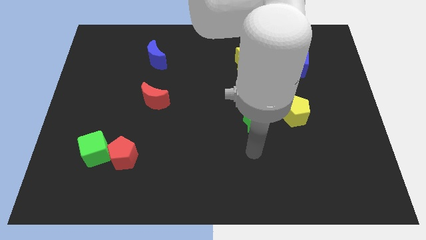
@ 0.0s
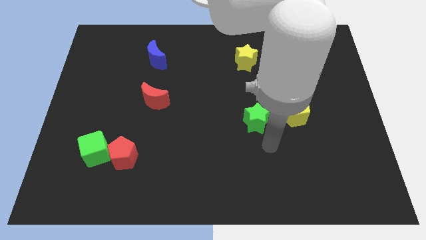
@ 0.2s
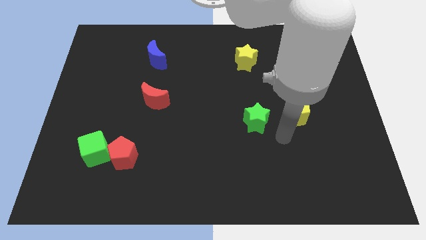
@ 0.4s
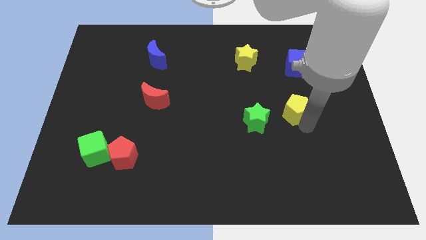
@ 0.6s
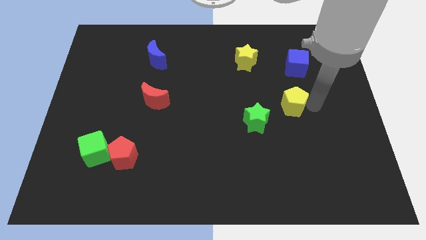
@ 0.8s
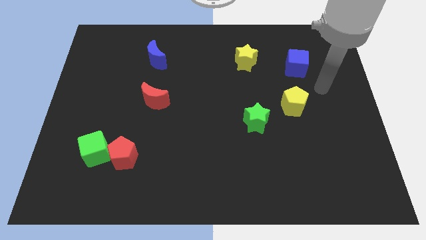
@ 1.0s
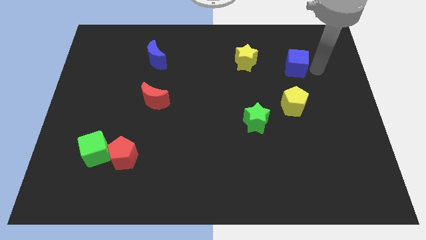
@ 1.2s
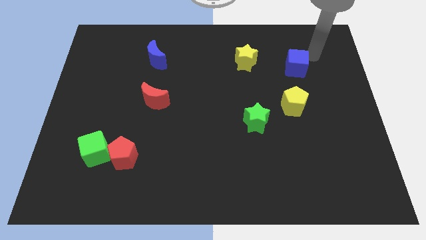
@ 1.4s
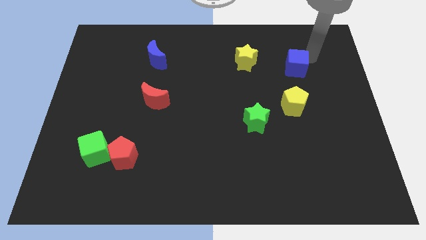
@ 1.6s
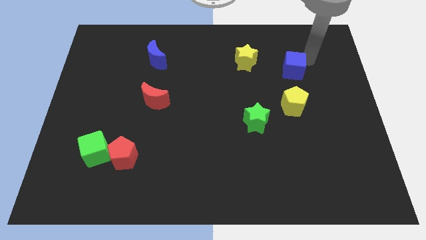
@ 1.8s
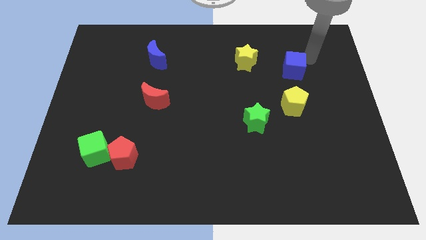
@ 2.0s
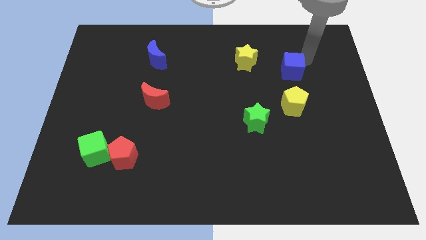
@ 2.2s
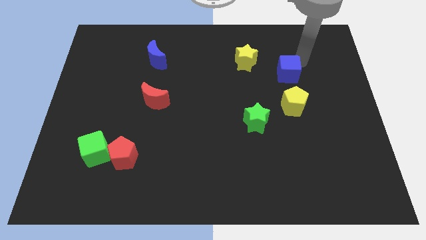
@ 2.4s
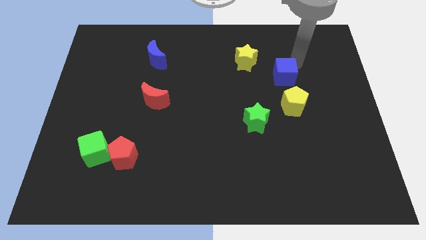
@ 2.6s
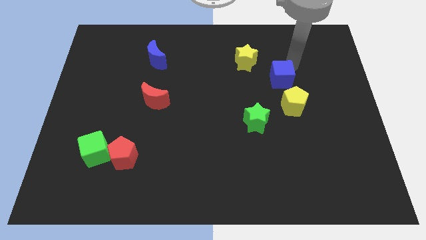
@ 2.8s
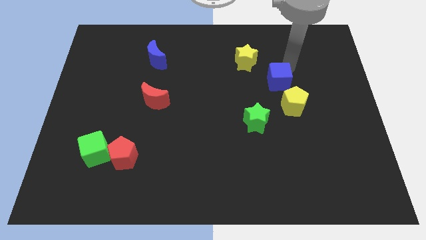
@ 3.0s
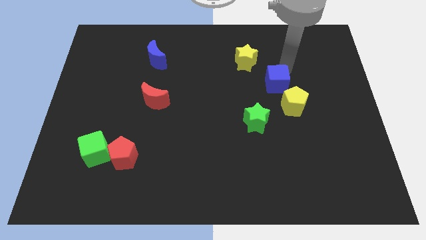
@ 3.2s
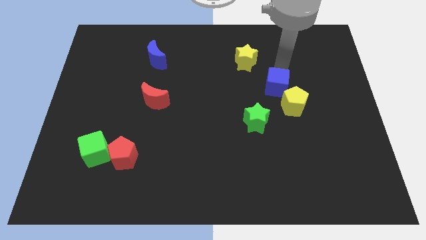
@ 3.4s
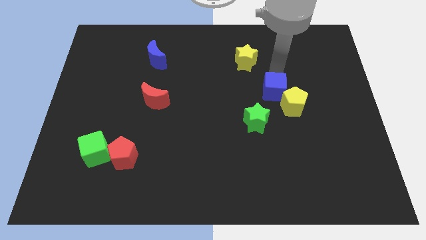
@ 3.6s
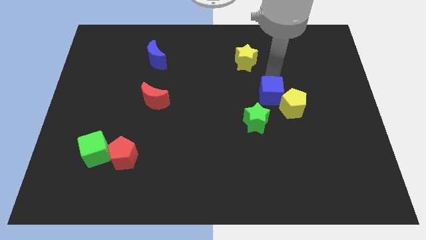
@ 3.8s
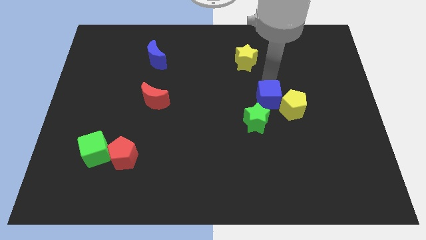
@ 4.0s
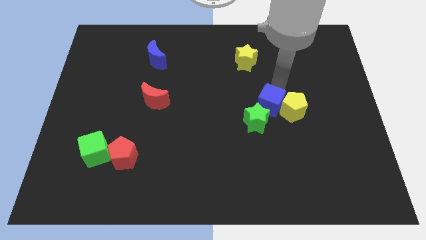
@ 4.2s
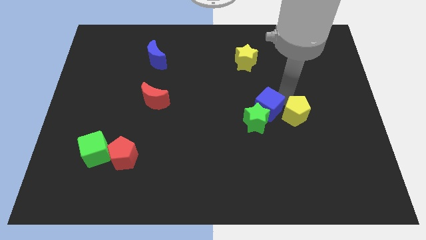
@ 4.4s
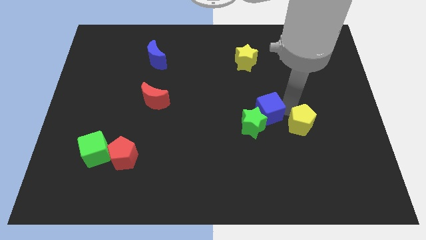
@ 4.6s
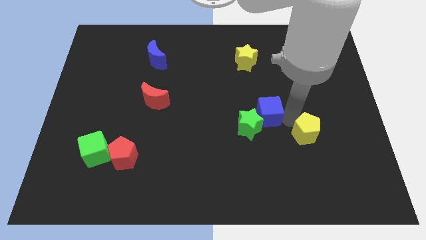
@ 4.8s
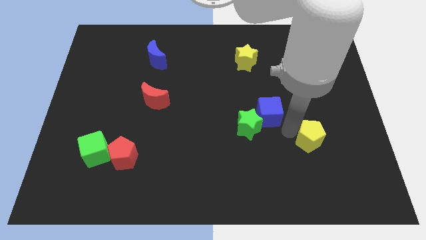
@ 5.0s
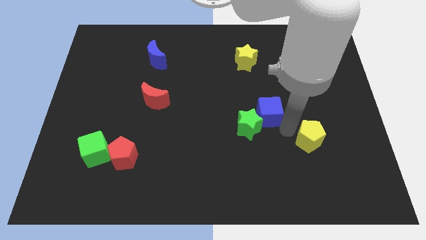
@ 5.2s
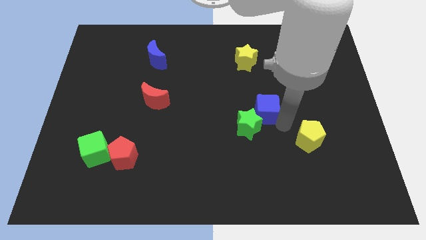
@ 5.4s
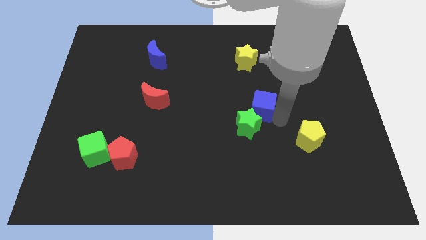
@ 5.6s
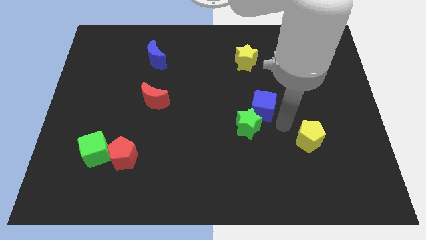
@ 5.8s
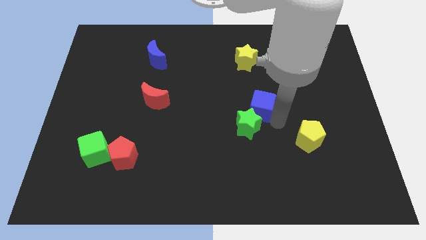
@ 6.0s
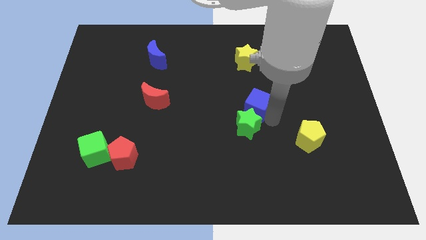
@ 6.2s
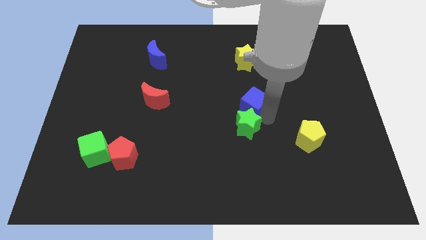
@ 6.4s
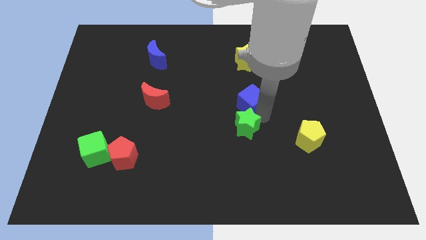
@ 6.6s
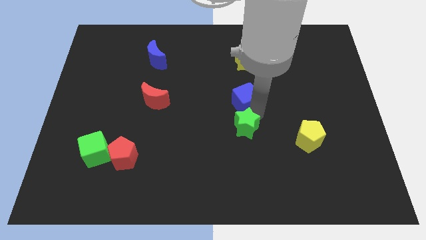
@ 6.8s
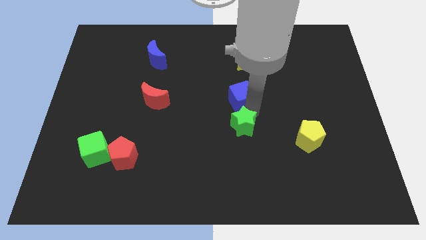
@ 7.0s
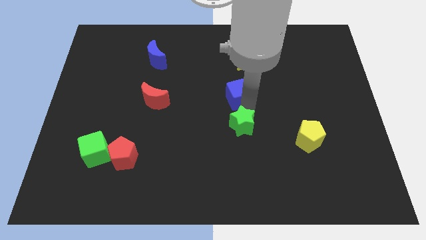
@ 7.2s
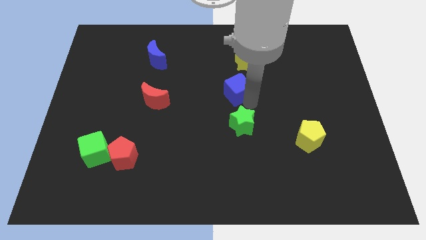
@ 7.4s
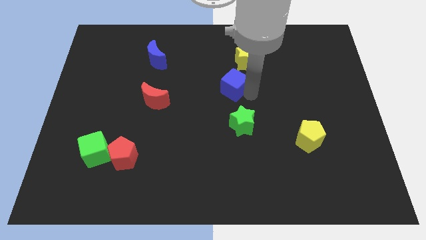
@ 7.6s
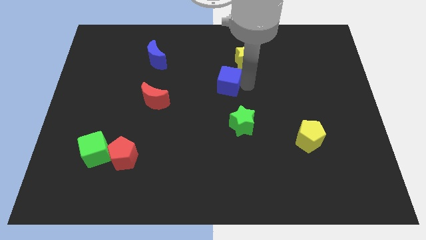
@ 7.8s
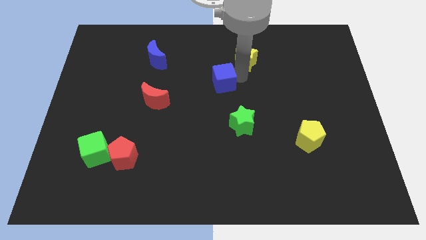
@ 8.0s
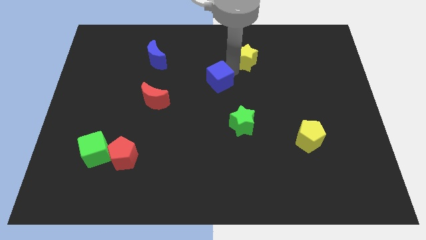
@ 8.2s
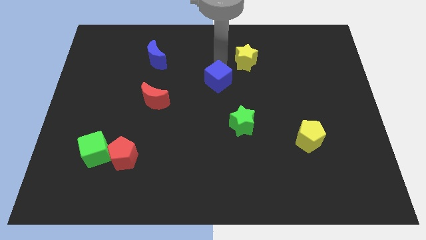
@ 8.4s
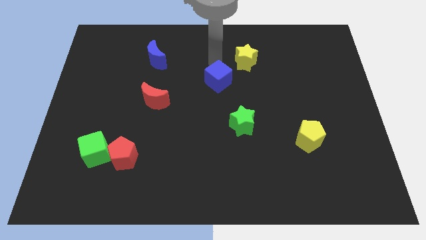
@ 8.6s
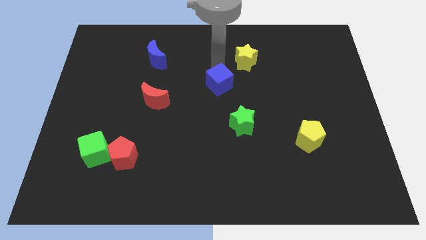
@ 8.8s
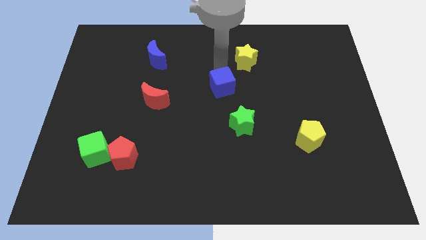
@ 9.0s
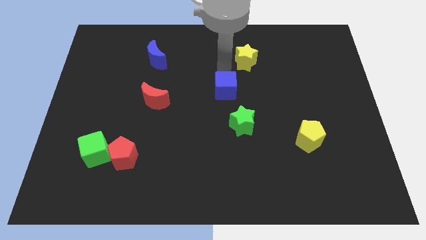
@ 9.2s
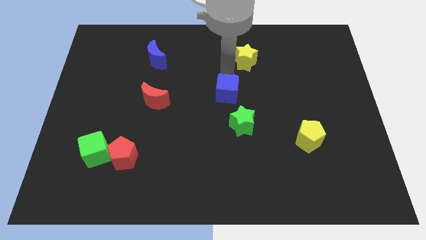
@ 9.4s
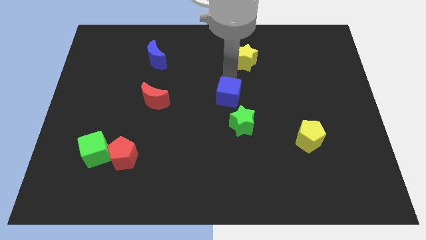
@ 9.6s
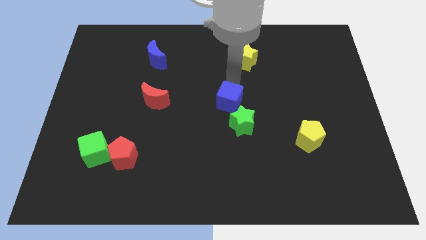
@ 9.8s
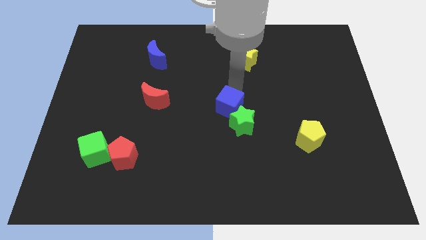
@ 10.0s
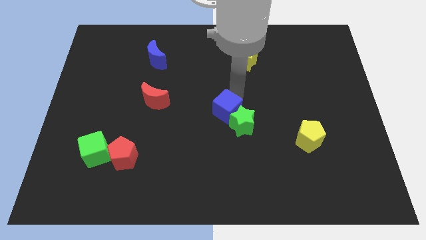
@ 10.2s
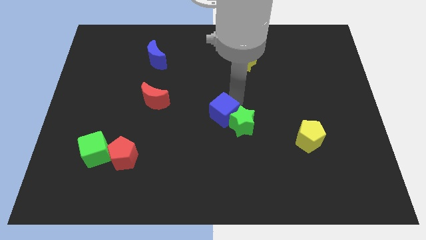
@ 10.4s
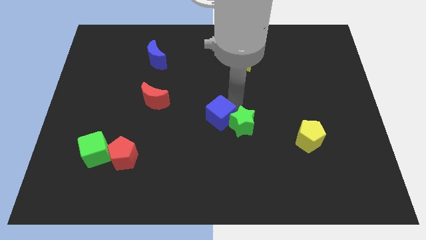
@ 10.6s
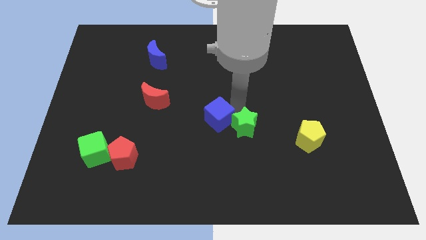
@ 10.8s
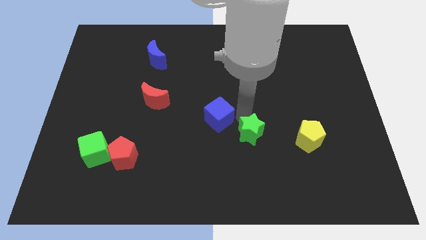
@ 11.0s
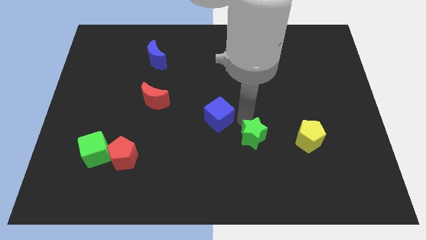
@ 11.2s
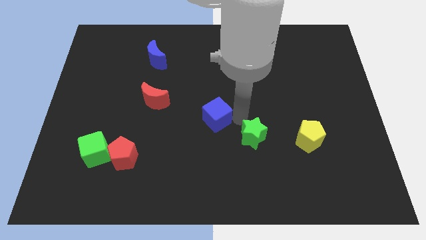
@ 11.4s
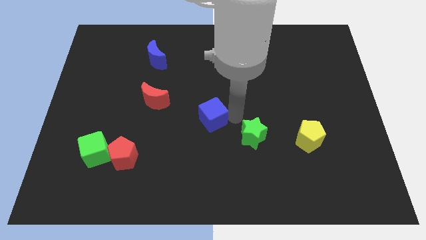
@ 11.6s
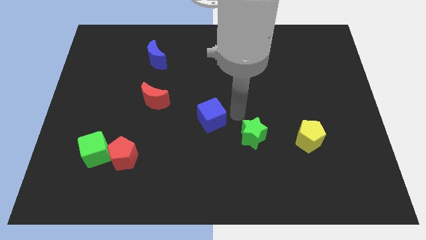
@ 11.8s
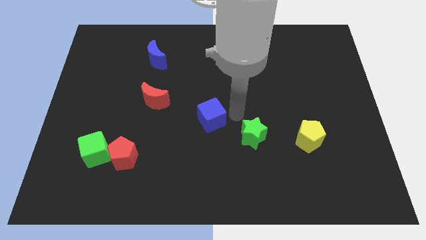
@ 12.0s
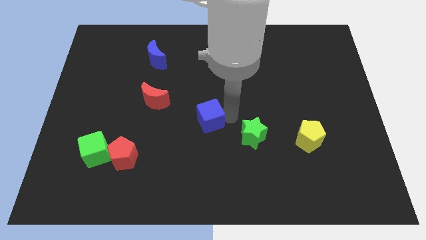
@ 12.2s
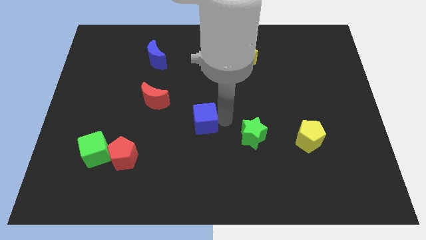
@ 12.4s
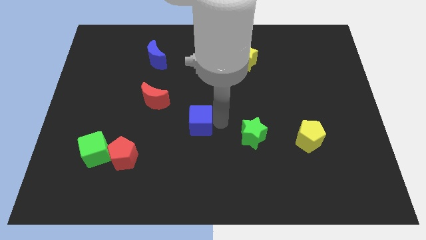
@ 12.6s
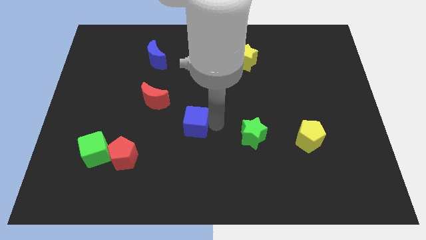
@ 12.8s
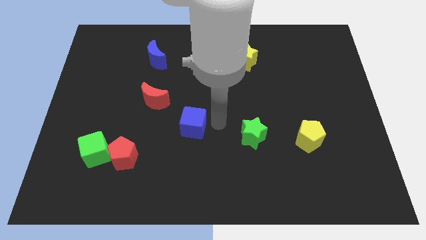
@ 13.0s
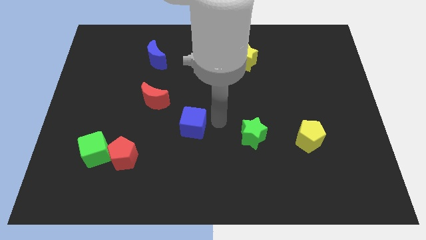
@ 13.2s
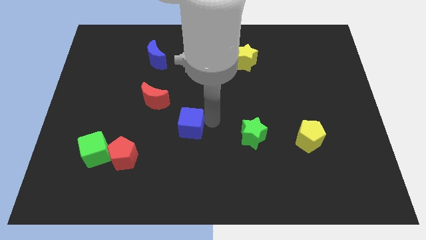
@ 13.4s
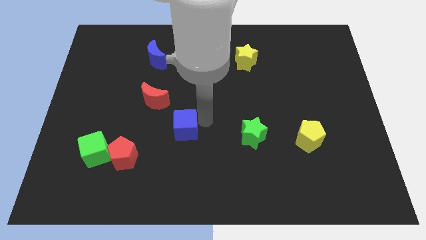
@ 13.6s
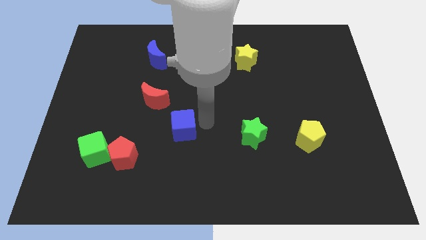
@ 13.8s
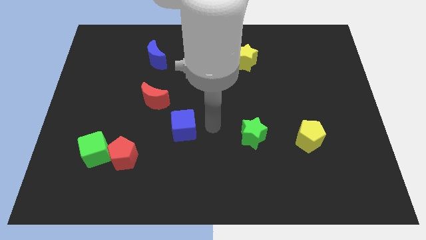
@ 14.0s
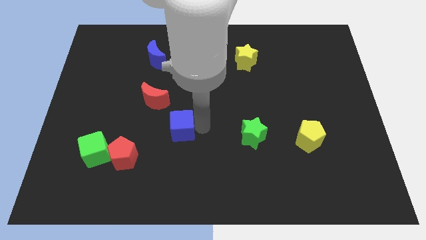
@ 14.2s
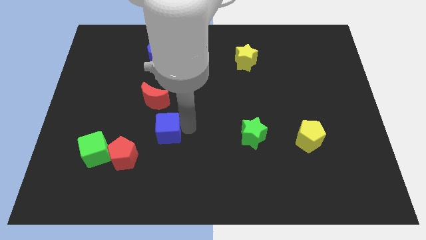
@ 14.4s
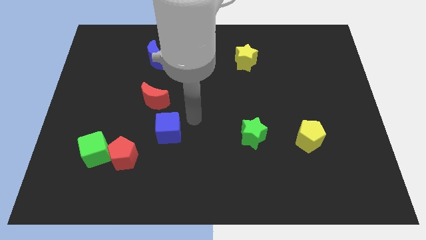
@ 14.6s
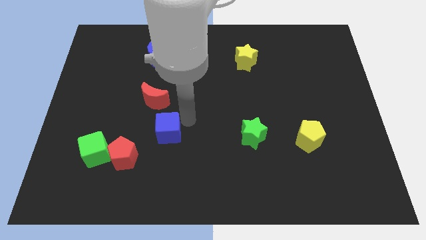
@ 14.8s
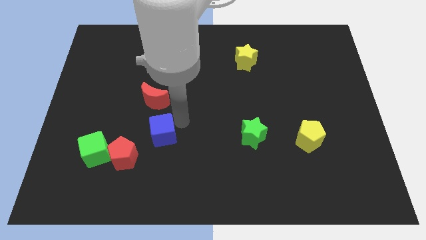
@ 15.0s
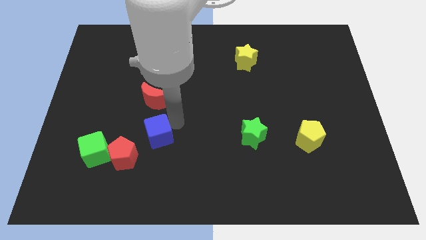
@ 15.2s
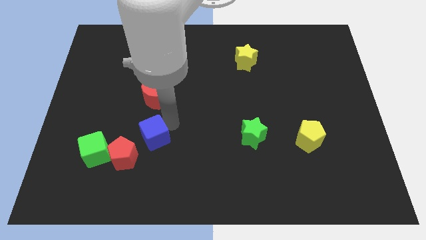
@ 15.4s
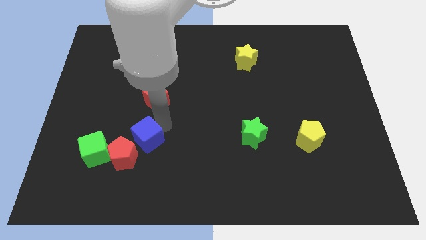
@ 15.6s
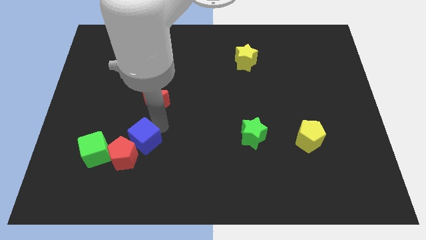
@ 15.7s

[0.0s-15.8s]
slide the blue cube to the red pentagon

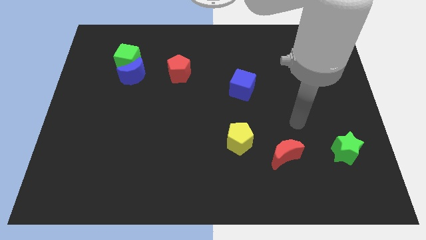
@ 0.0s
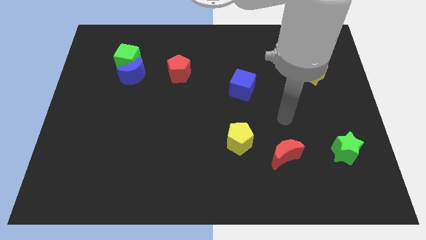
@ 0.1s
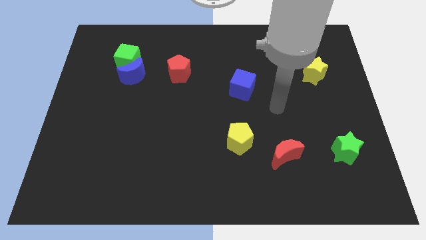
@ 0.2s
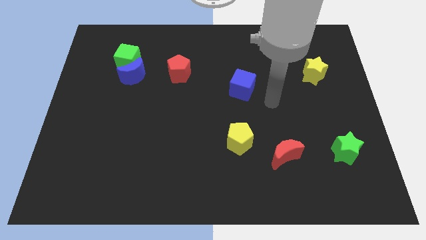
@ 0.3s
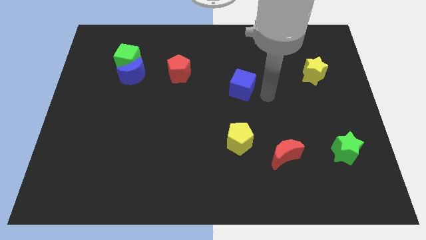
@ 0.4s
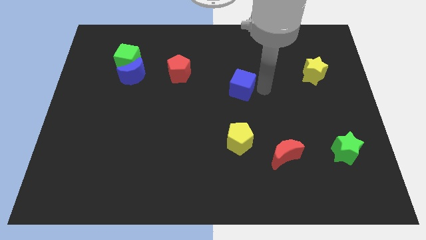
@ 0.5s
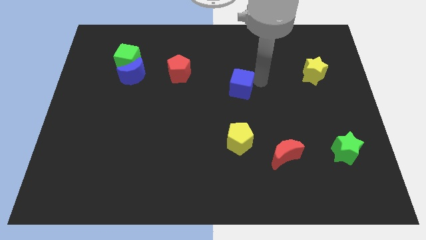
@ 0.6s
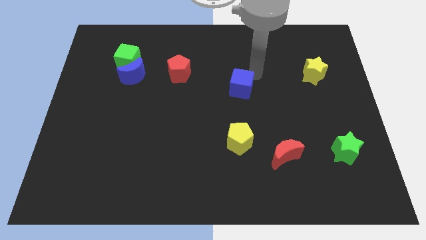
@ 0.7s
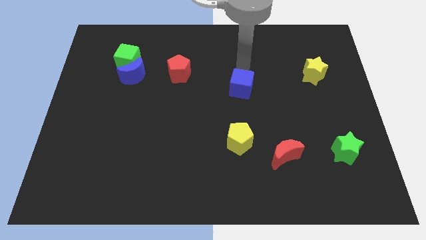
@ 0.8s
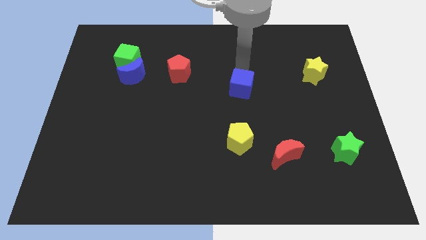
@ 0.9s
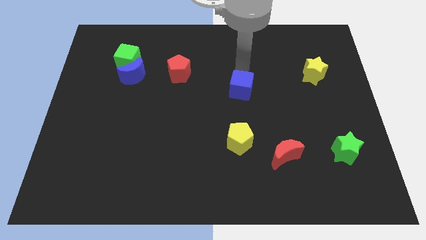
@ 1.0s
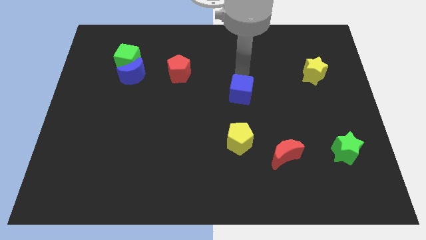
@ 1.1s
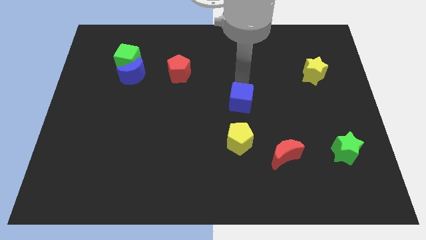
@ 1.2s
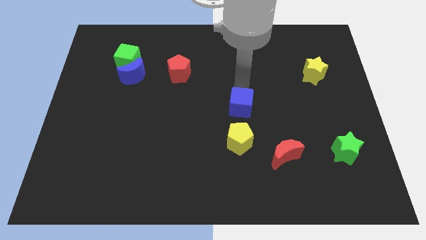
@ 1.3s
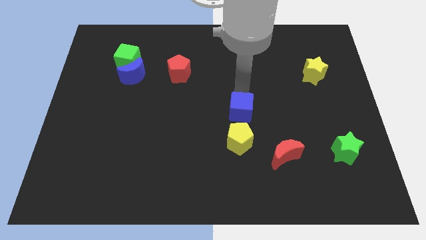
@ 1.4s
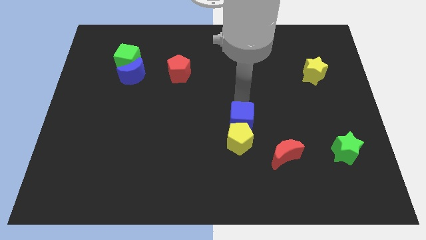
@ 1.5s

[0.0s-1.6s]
slide the blue cube towards the yellow pentagon
